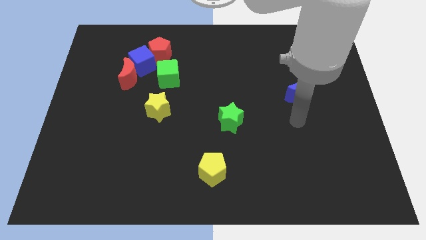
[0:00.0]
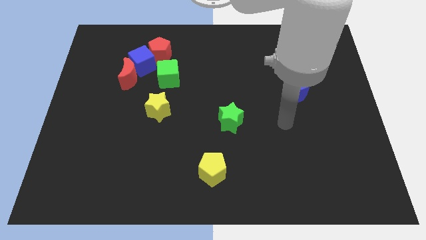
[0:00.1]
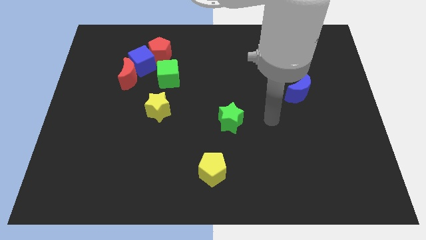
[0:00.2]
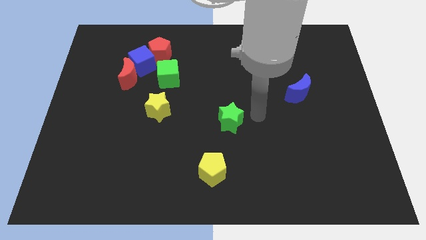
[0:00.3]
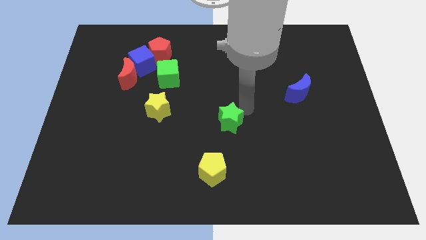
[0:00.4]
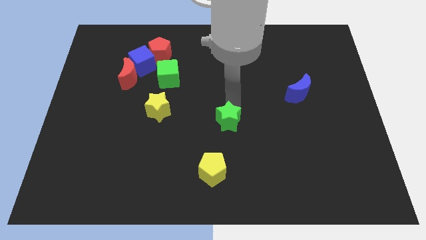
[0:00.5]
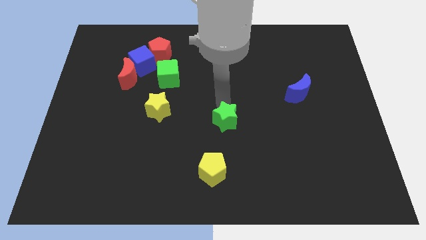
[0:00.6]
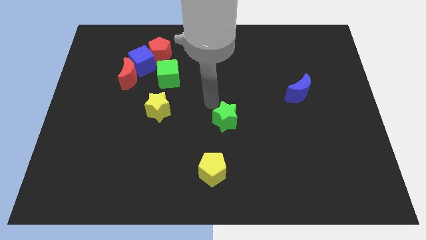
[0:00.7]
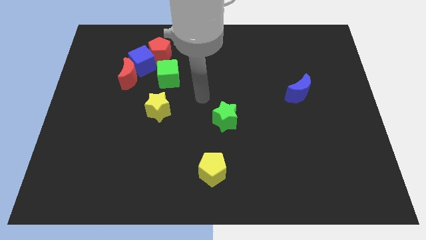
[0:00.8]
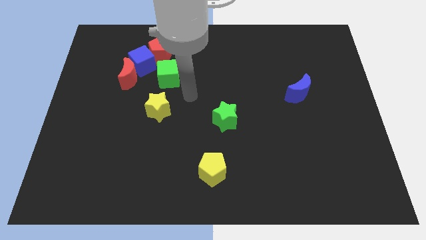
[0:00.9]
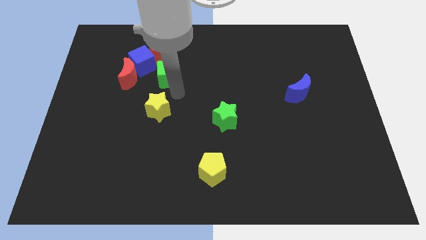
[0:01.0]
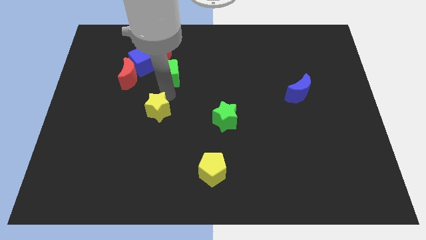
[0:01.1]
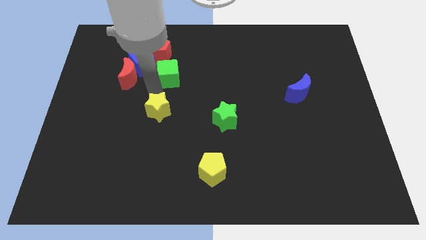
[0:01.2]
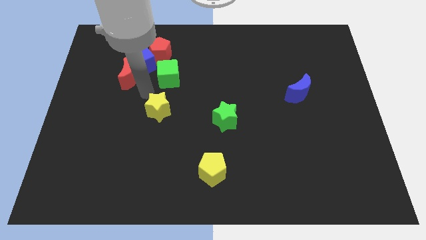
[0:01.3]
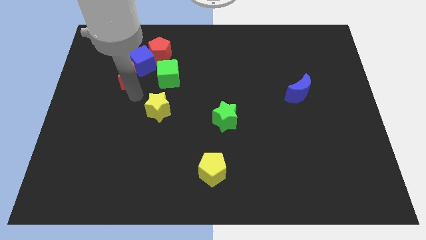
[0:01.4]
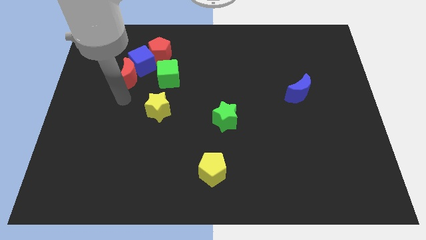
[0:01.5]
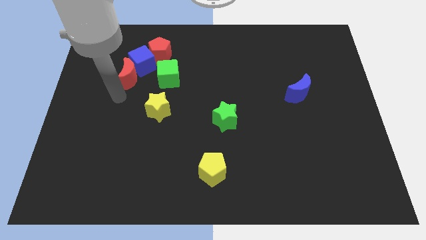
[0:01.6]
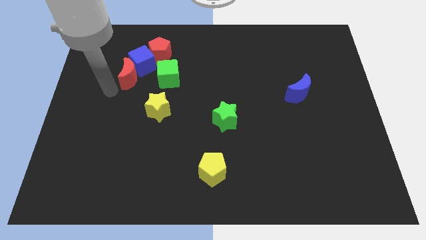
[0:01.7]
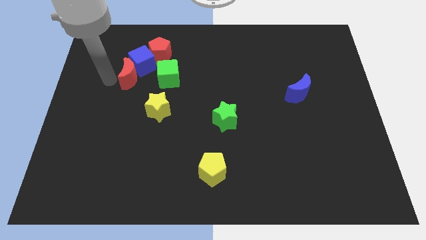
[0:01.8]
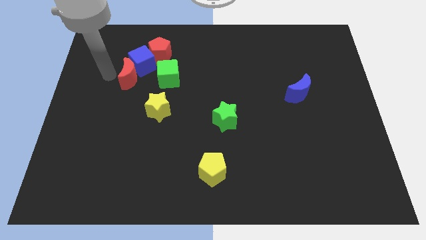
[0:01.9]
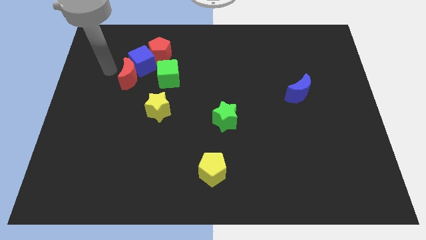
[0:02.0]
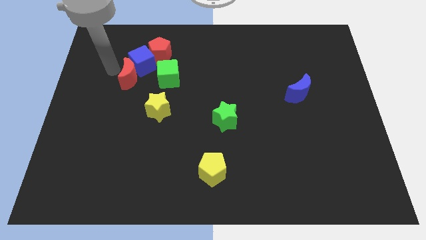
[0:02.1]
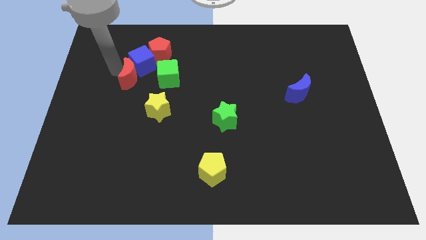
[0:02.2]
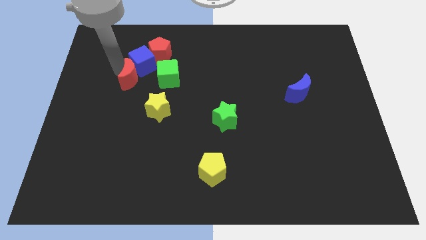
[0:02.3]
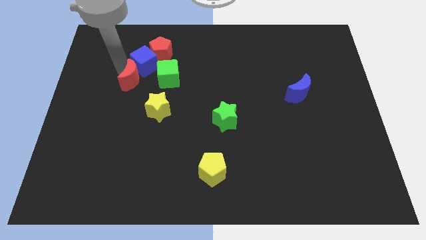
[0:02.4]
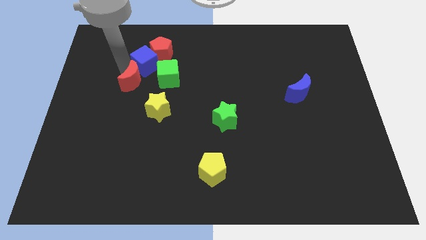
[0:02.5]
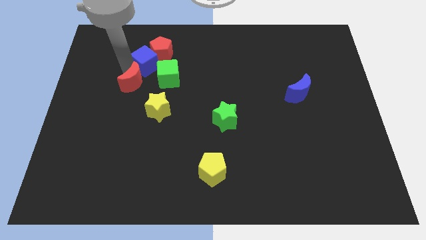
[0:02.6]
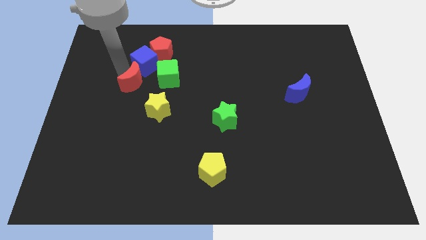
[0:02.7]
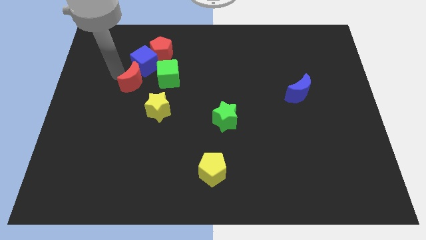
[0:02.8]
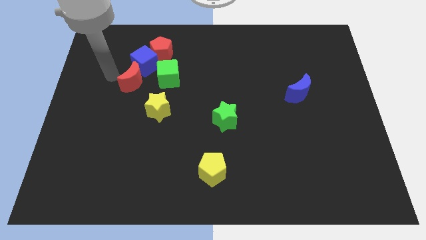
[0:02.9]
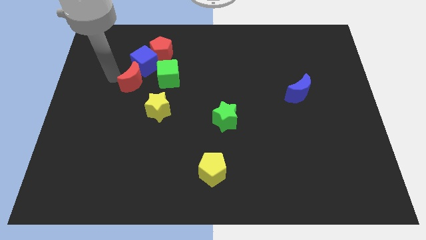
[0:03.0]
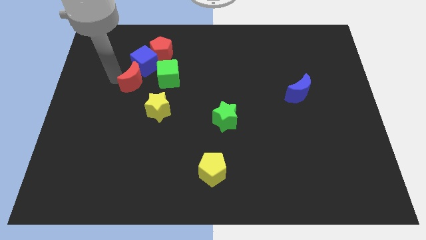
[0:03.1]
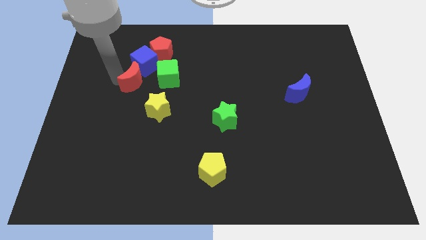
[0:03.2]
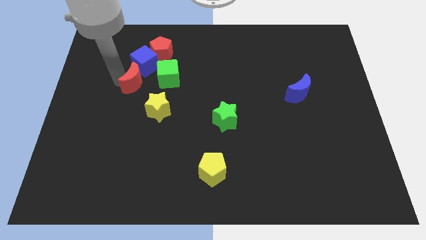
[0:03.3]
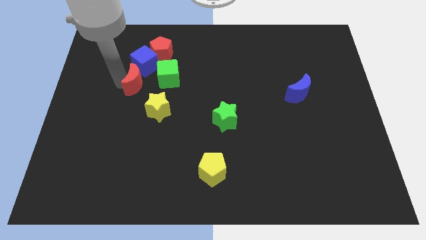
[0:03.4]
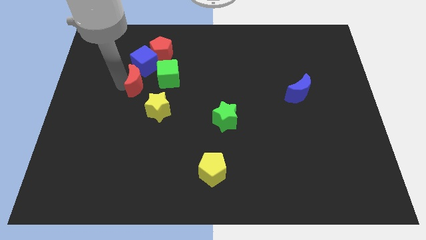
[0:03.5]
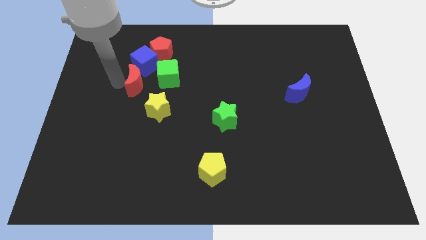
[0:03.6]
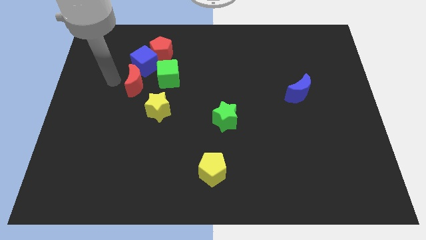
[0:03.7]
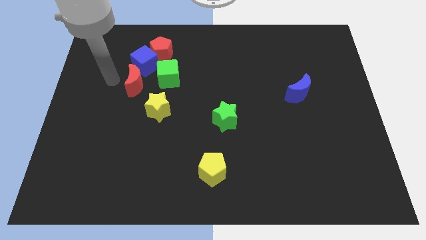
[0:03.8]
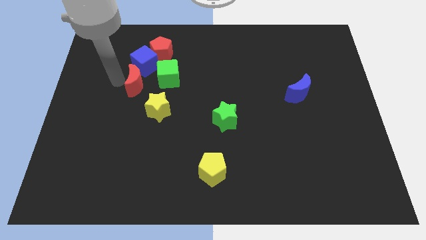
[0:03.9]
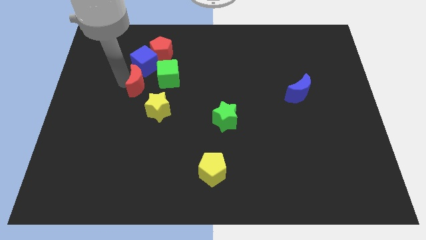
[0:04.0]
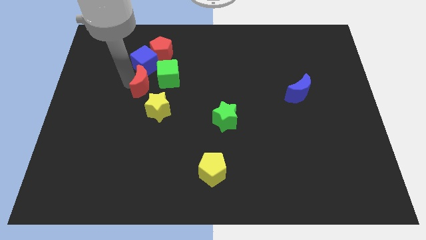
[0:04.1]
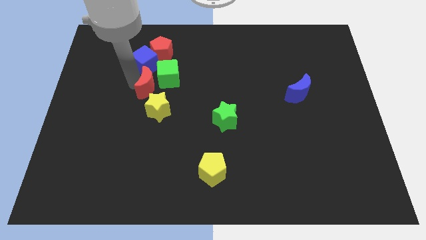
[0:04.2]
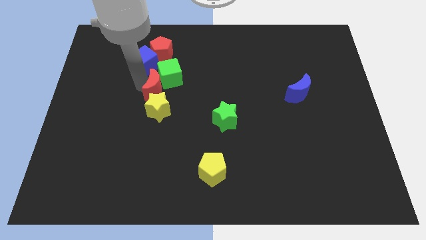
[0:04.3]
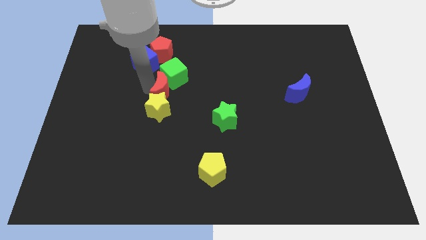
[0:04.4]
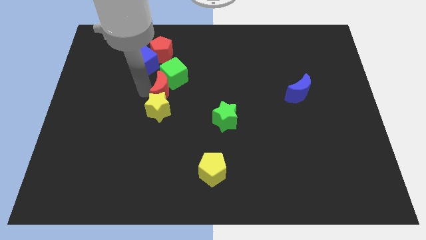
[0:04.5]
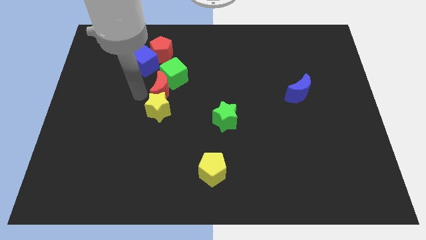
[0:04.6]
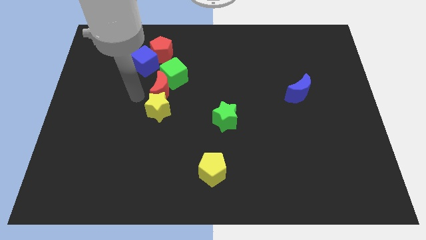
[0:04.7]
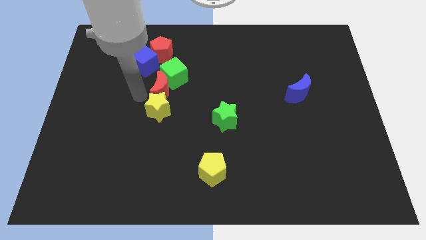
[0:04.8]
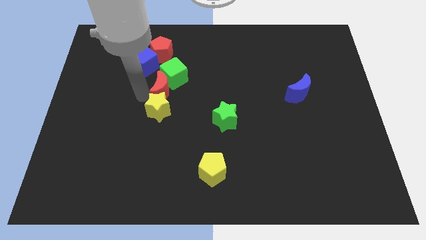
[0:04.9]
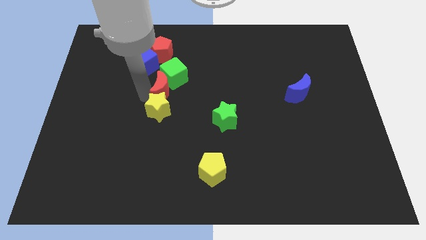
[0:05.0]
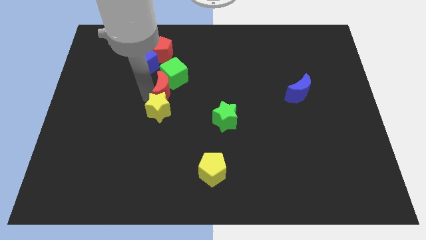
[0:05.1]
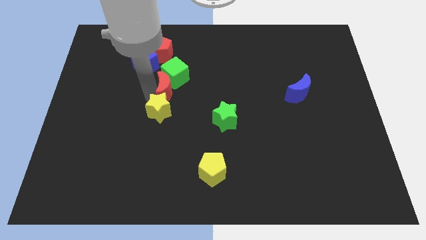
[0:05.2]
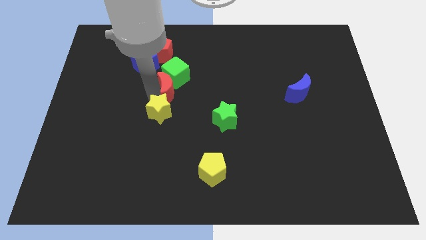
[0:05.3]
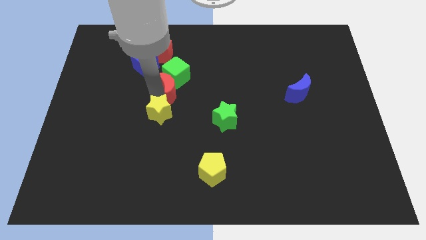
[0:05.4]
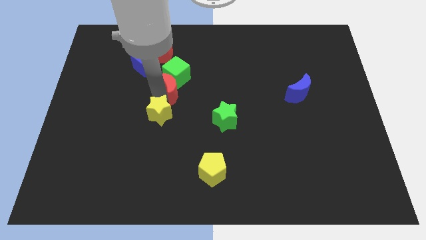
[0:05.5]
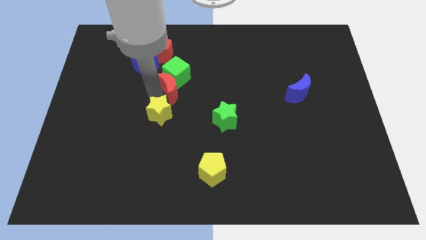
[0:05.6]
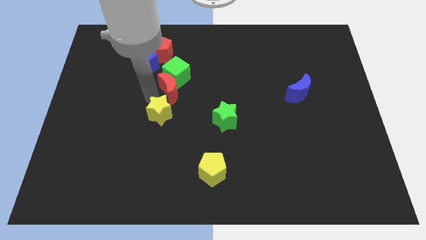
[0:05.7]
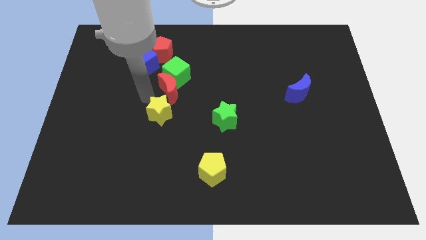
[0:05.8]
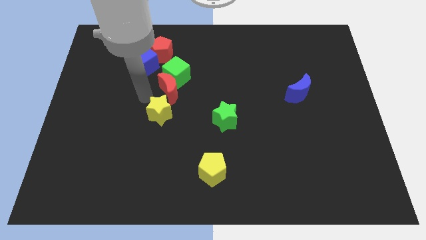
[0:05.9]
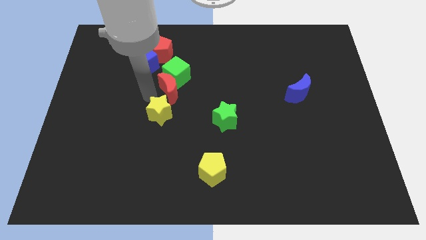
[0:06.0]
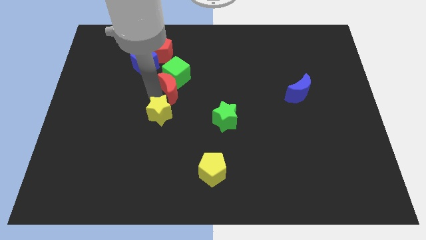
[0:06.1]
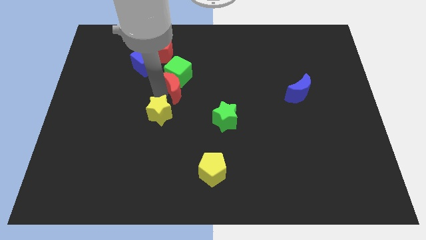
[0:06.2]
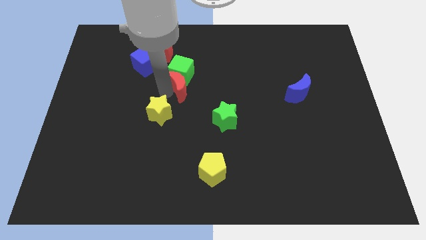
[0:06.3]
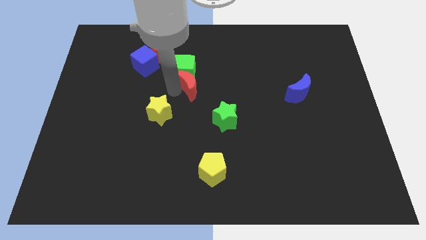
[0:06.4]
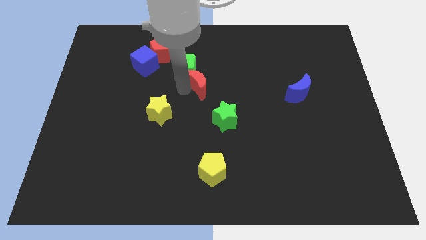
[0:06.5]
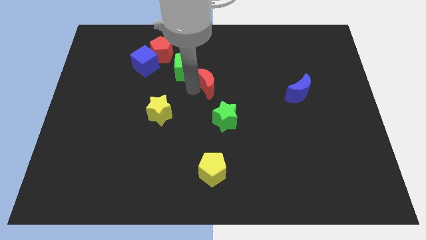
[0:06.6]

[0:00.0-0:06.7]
move the red moon to the right of the green cube

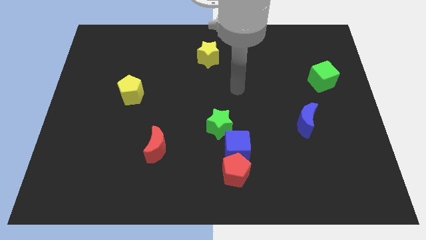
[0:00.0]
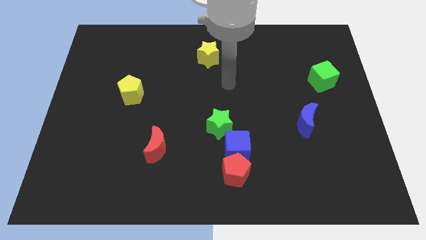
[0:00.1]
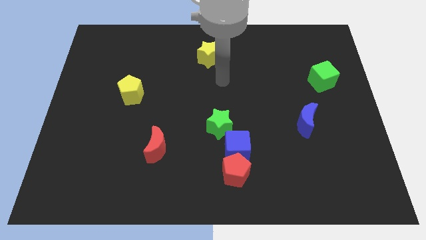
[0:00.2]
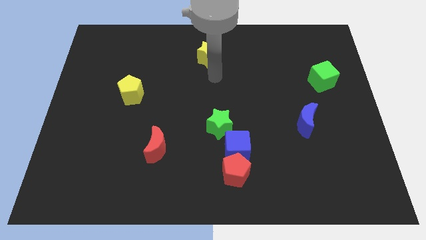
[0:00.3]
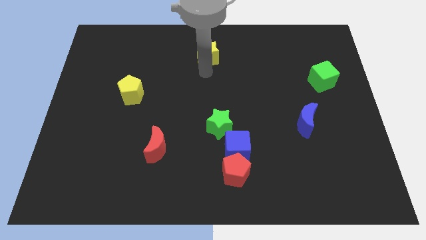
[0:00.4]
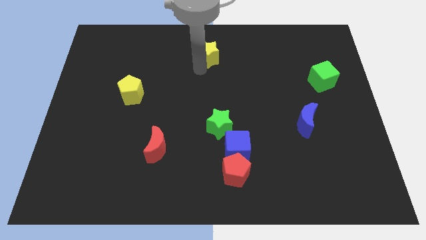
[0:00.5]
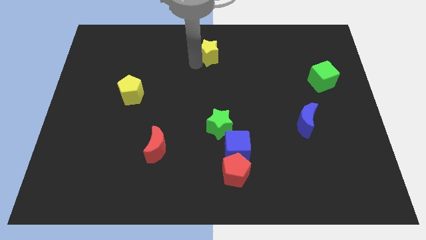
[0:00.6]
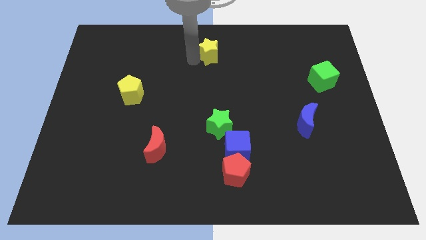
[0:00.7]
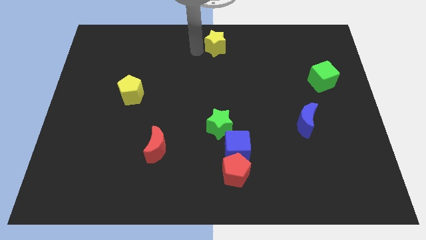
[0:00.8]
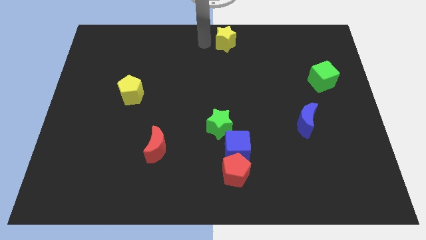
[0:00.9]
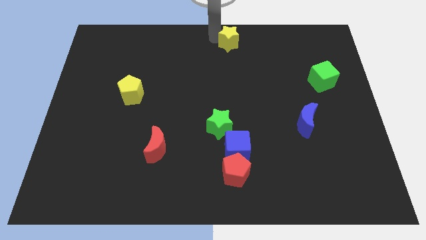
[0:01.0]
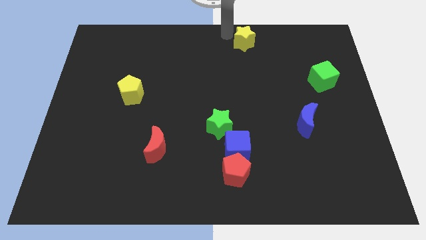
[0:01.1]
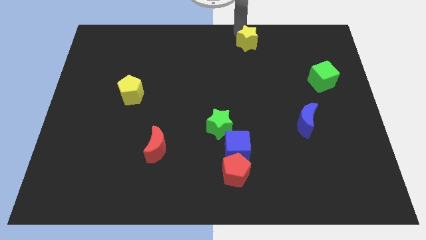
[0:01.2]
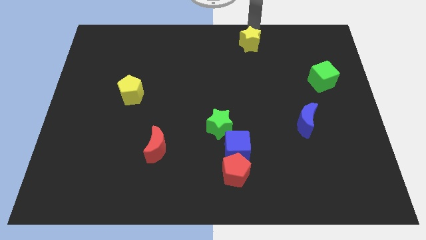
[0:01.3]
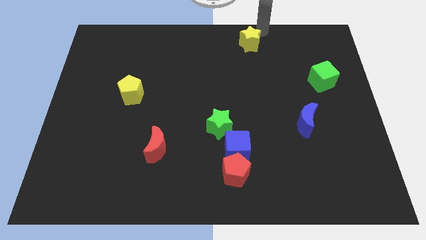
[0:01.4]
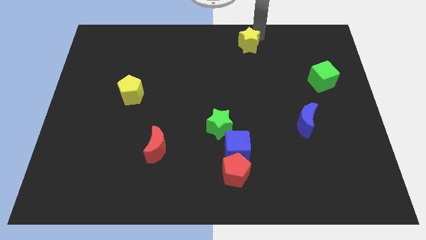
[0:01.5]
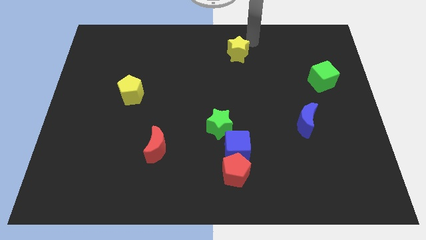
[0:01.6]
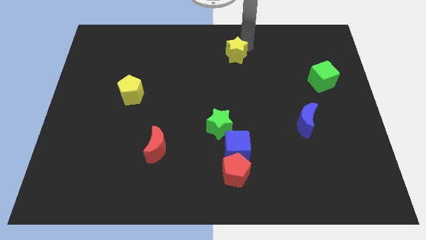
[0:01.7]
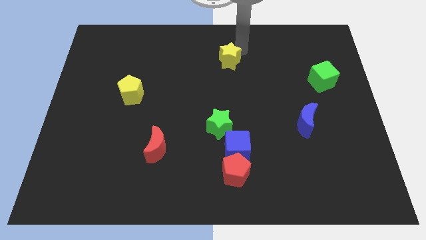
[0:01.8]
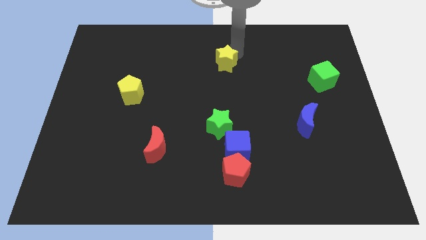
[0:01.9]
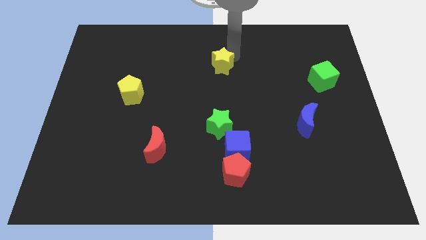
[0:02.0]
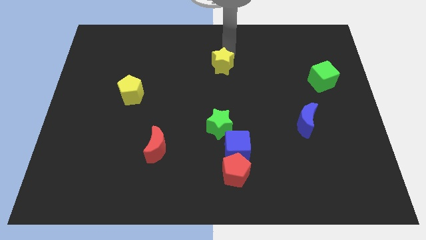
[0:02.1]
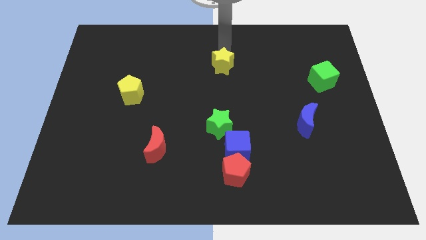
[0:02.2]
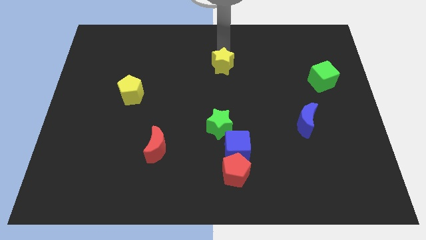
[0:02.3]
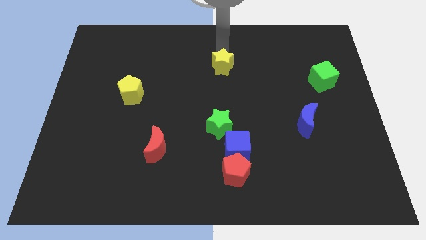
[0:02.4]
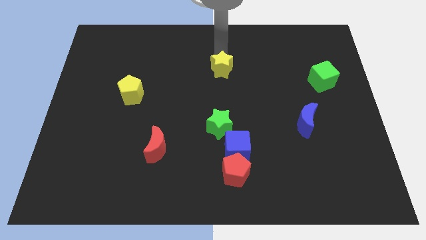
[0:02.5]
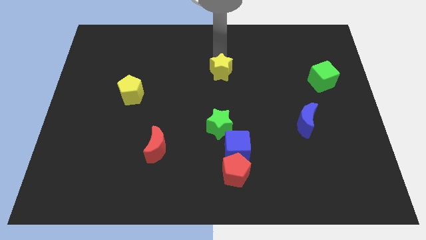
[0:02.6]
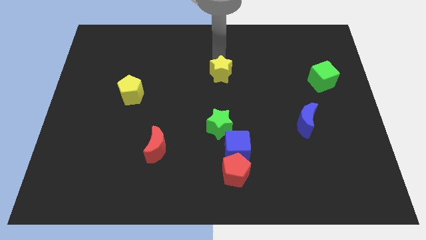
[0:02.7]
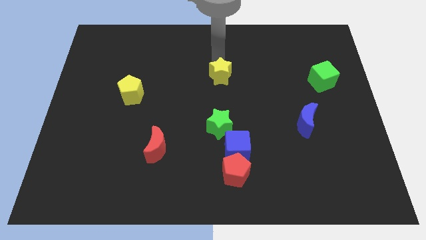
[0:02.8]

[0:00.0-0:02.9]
put the yellow star above the green star
